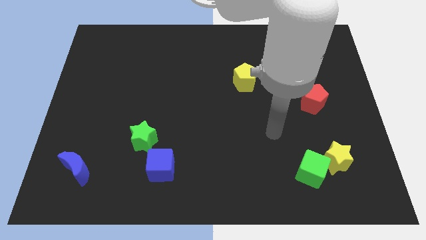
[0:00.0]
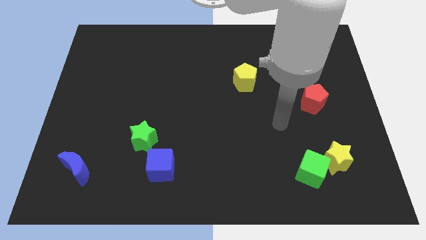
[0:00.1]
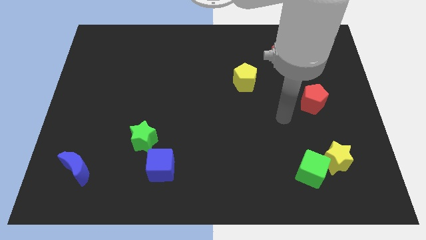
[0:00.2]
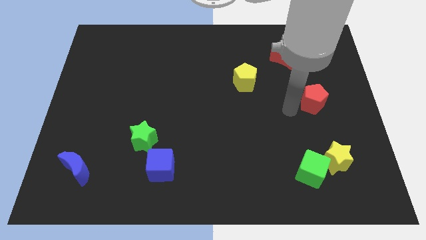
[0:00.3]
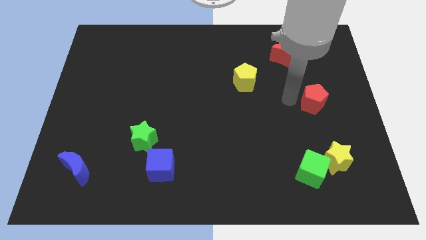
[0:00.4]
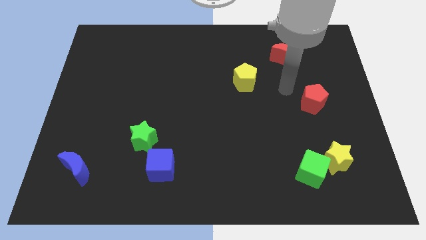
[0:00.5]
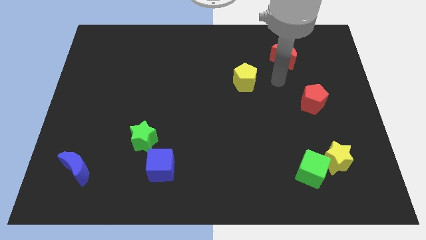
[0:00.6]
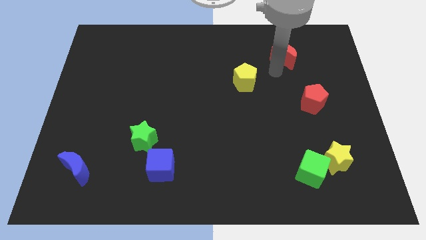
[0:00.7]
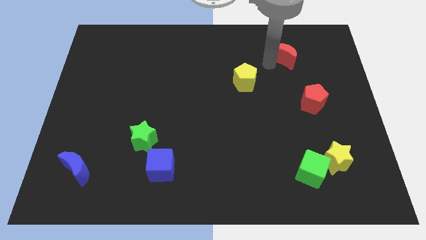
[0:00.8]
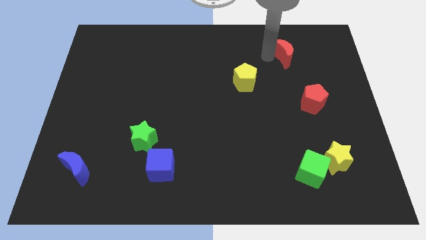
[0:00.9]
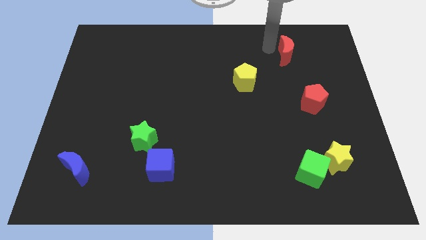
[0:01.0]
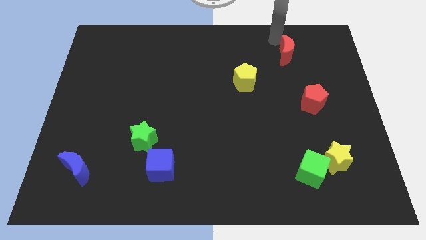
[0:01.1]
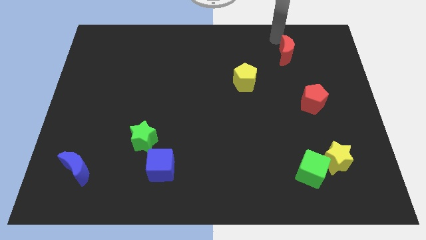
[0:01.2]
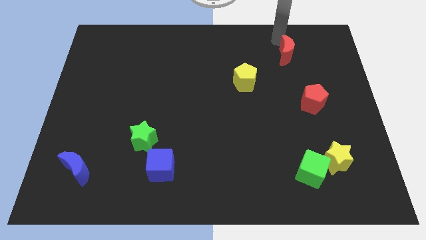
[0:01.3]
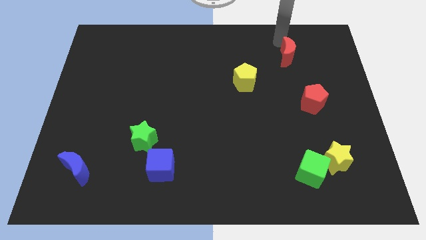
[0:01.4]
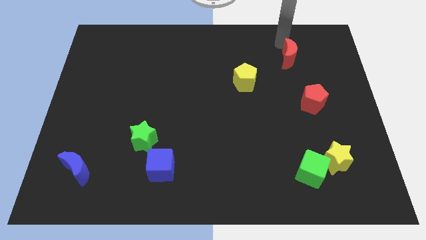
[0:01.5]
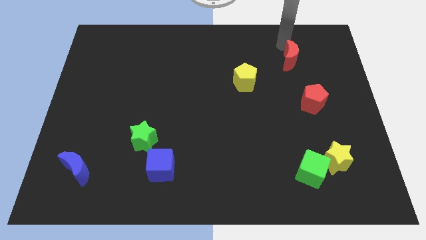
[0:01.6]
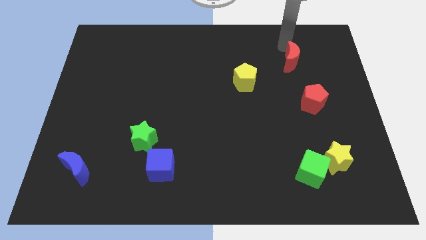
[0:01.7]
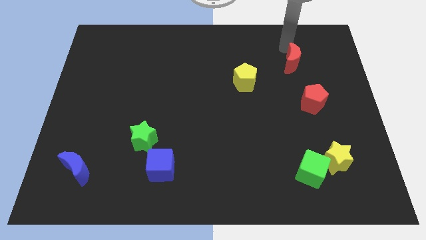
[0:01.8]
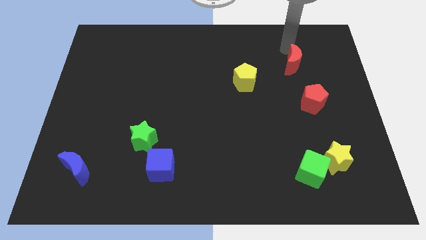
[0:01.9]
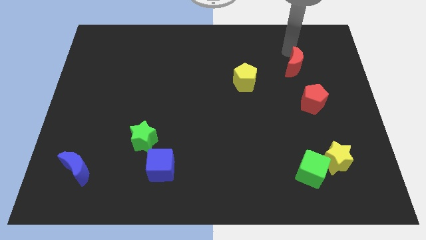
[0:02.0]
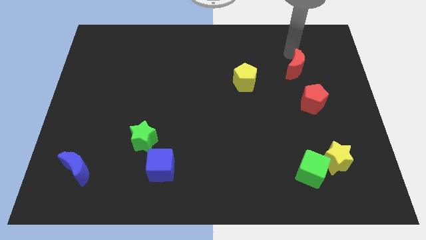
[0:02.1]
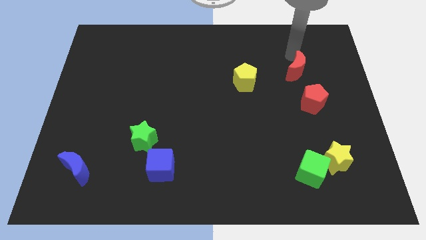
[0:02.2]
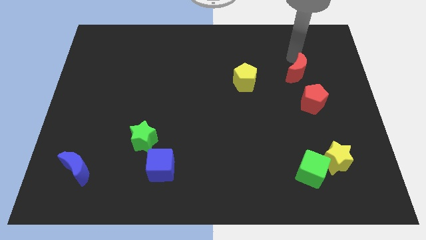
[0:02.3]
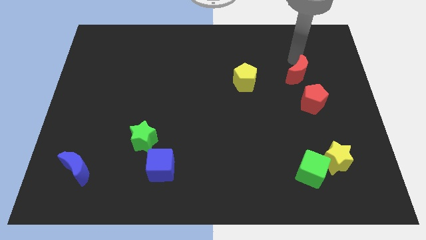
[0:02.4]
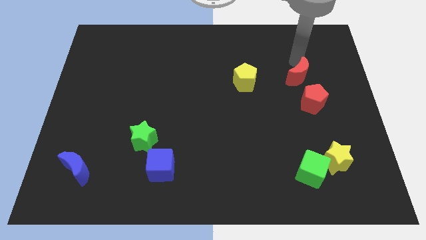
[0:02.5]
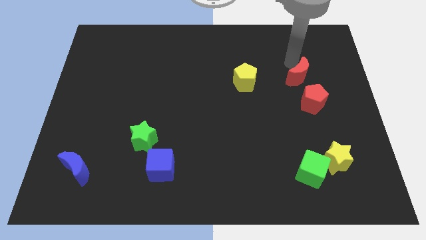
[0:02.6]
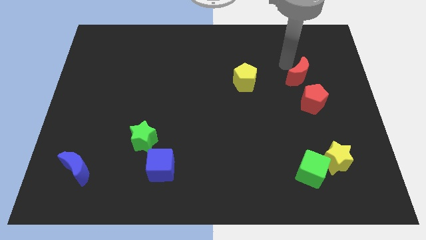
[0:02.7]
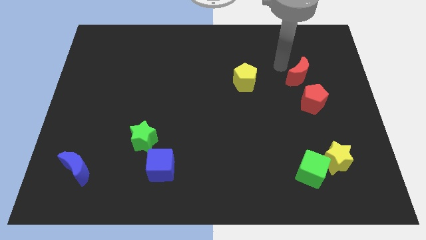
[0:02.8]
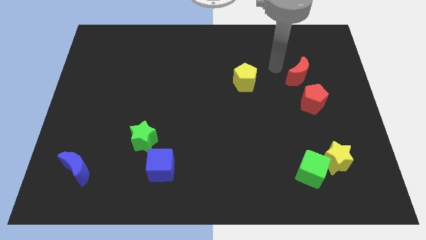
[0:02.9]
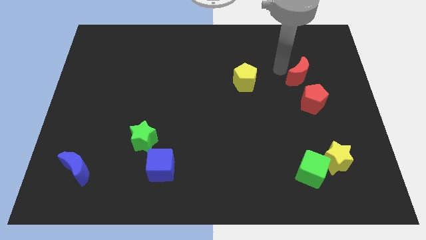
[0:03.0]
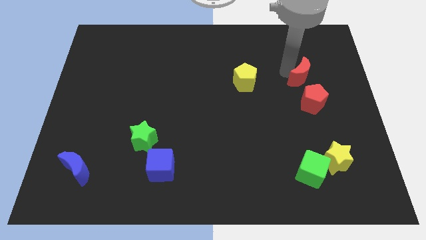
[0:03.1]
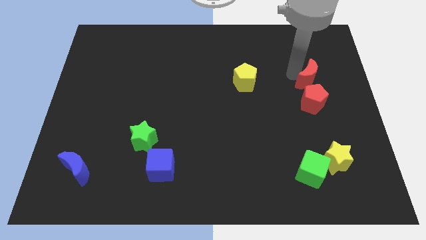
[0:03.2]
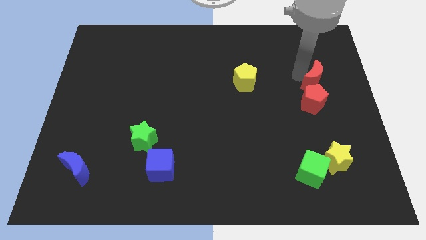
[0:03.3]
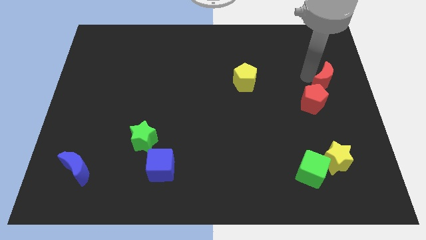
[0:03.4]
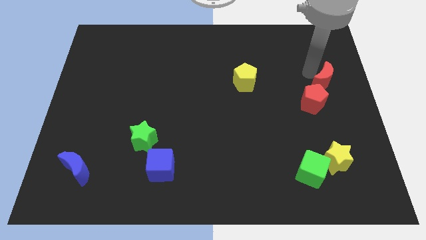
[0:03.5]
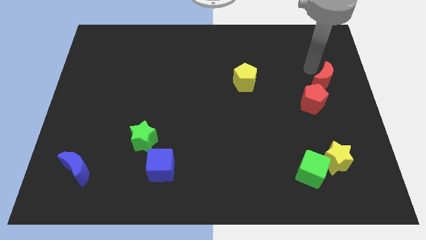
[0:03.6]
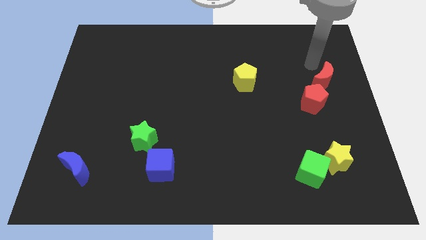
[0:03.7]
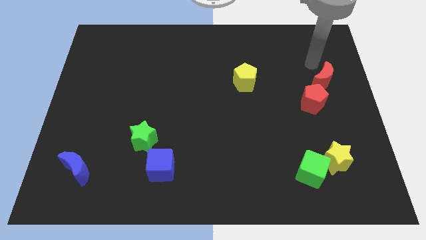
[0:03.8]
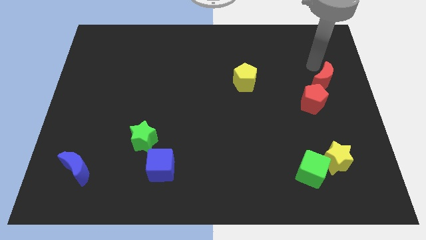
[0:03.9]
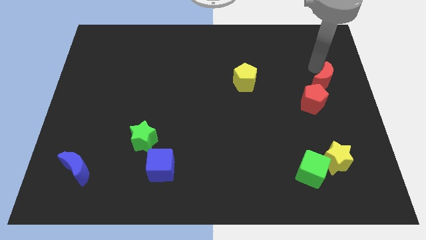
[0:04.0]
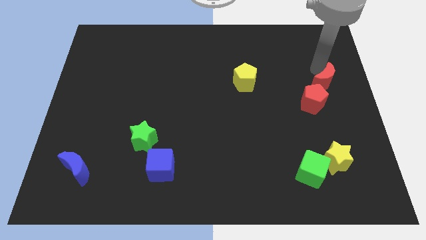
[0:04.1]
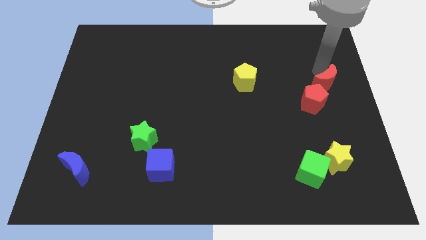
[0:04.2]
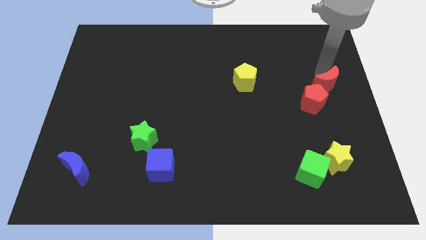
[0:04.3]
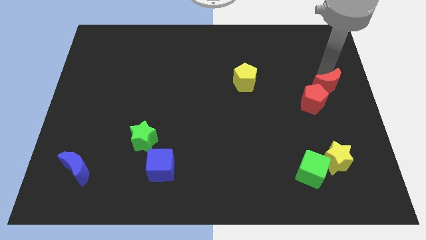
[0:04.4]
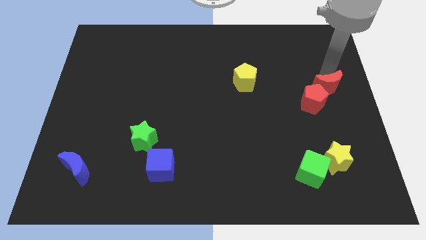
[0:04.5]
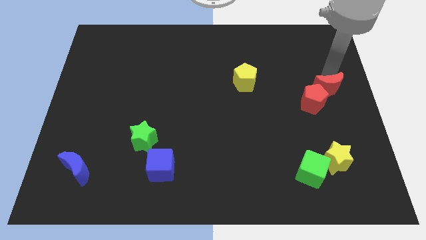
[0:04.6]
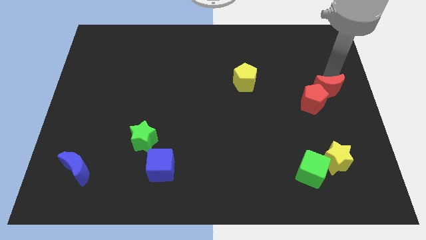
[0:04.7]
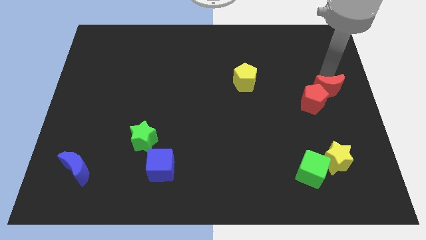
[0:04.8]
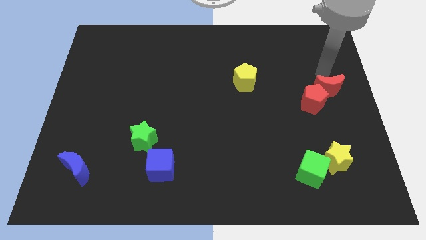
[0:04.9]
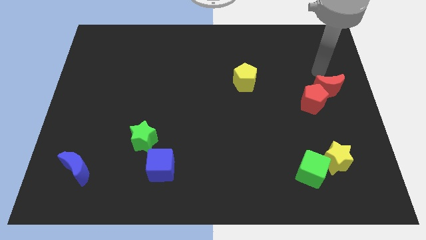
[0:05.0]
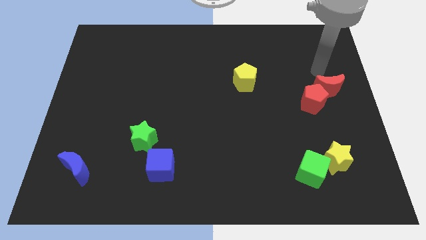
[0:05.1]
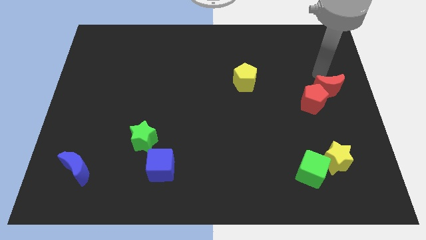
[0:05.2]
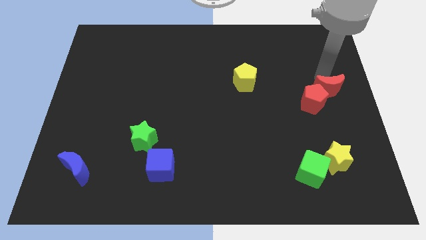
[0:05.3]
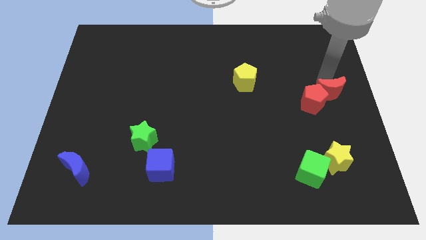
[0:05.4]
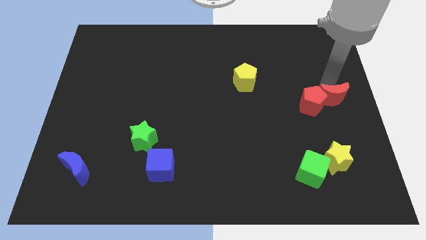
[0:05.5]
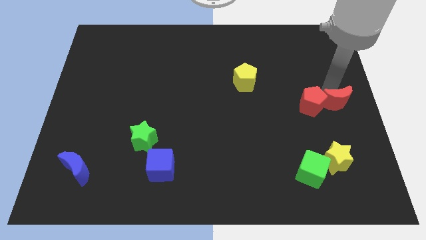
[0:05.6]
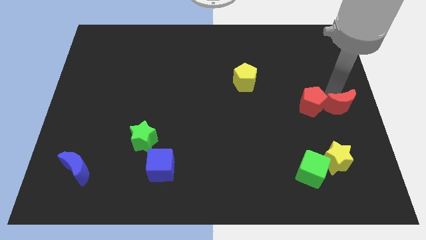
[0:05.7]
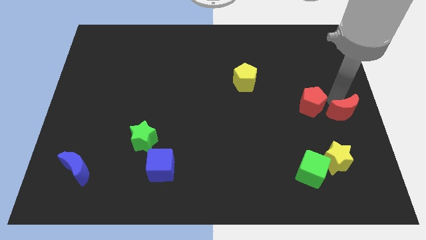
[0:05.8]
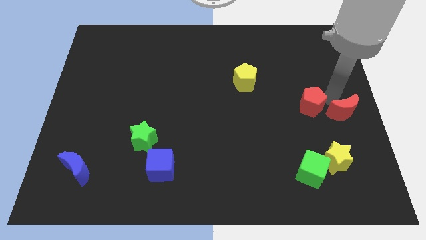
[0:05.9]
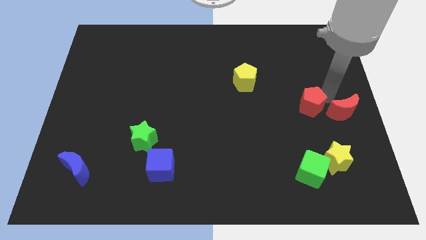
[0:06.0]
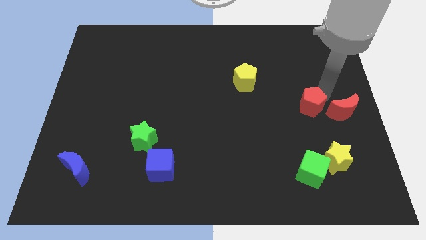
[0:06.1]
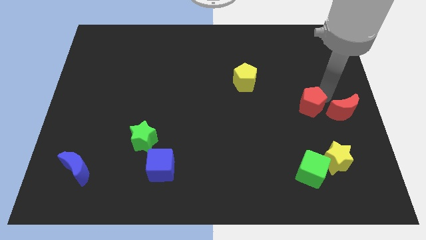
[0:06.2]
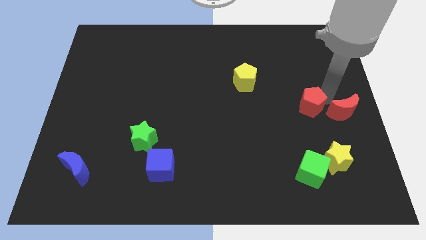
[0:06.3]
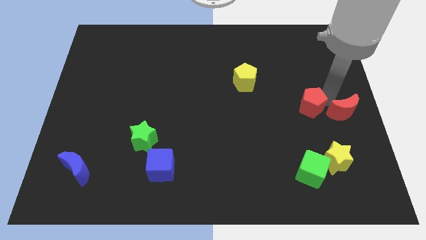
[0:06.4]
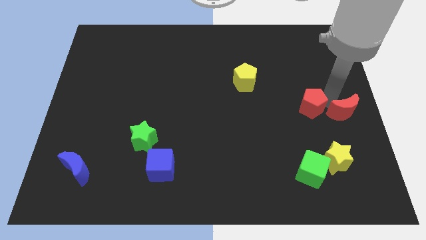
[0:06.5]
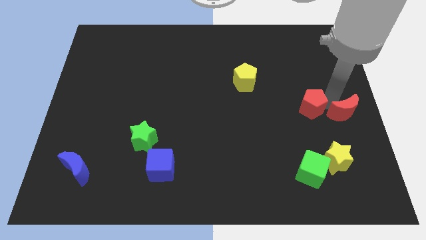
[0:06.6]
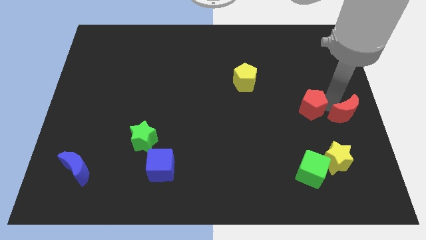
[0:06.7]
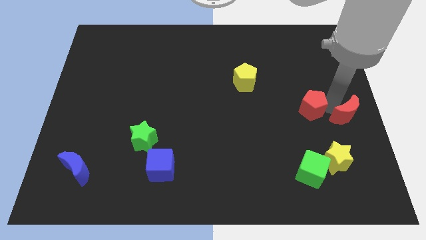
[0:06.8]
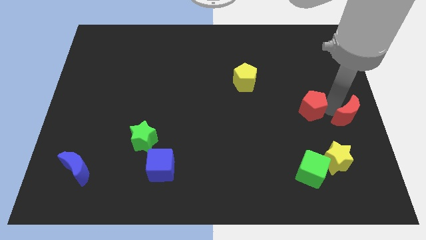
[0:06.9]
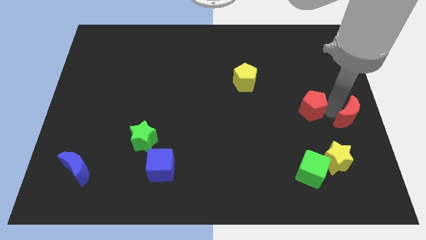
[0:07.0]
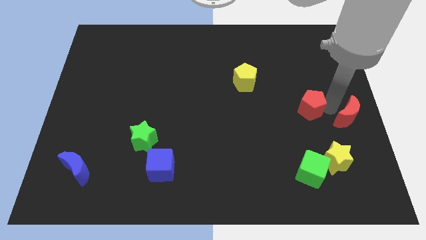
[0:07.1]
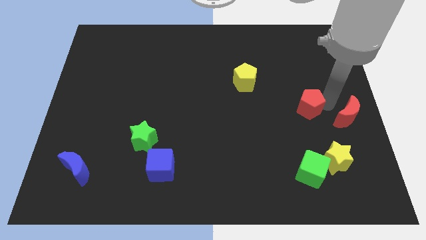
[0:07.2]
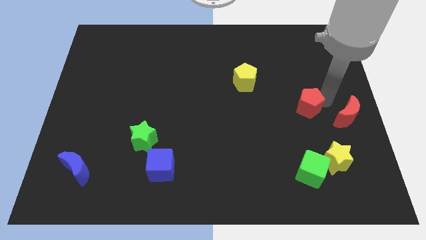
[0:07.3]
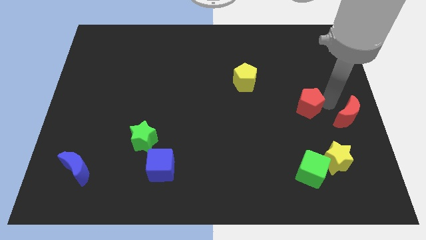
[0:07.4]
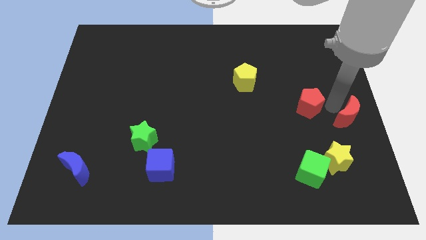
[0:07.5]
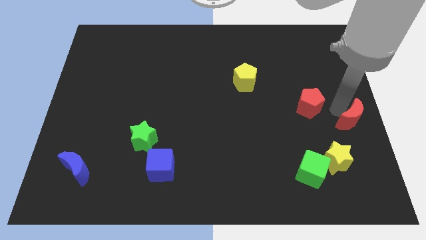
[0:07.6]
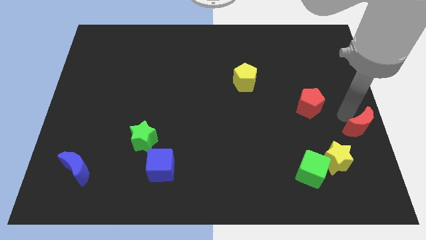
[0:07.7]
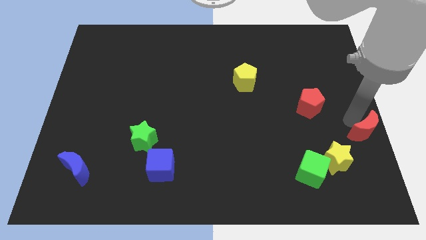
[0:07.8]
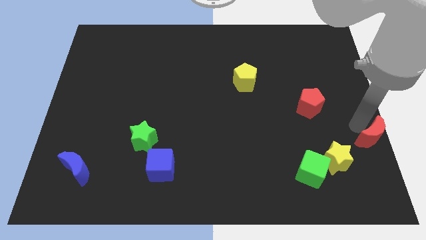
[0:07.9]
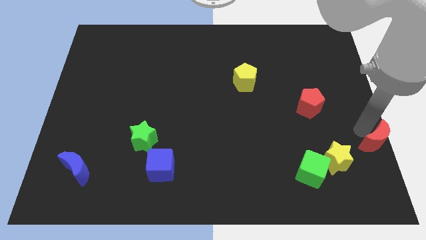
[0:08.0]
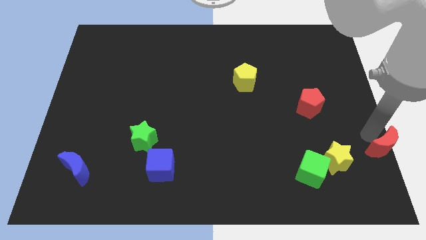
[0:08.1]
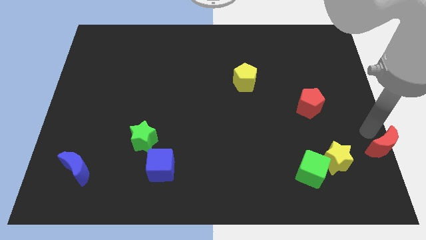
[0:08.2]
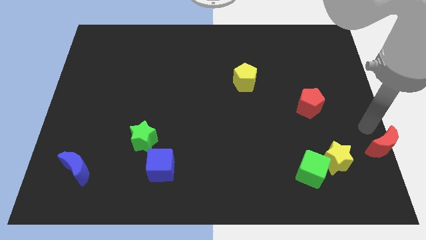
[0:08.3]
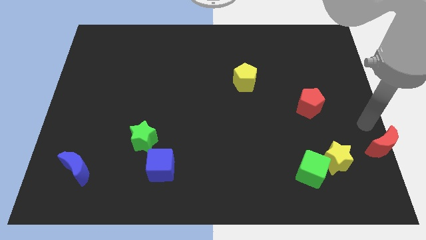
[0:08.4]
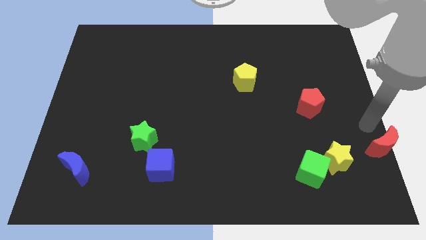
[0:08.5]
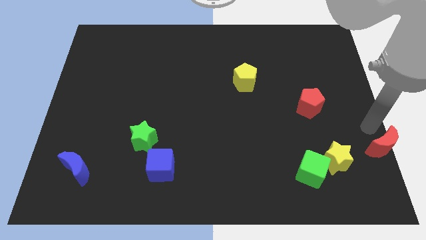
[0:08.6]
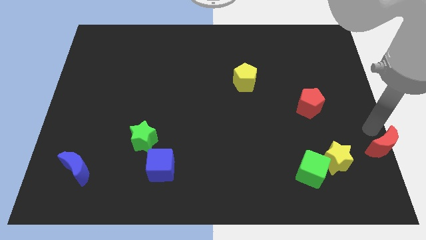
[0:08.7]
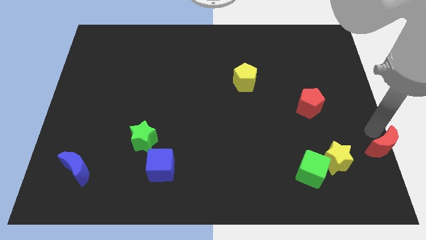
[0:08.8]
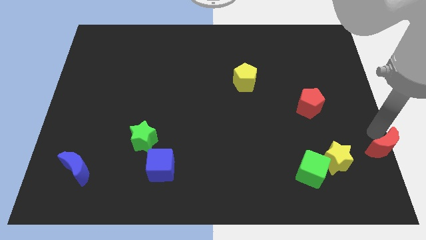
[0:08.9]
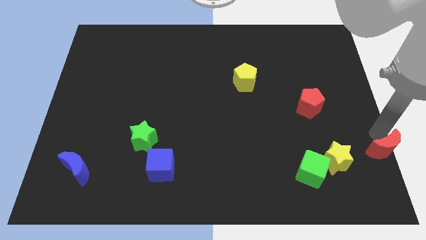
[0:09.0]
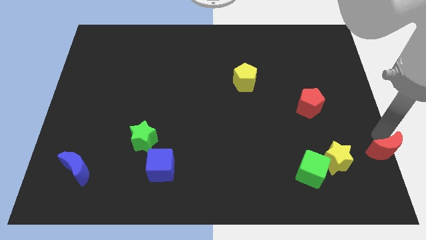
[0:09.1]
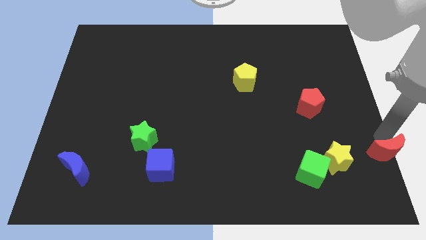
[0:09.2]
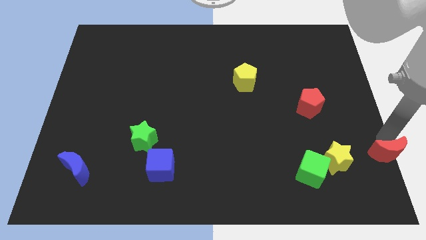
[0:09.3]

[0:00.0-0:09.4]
move the red moon to the bottom right
